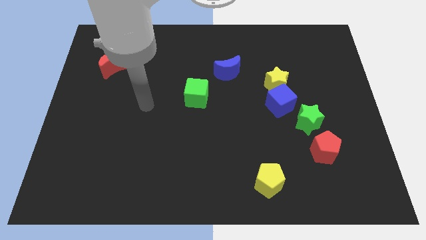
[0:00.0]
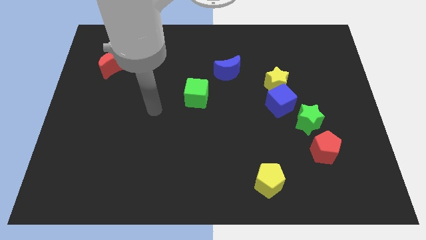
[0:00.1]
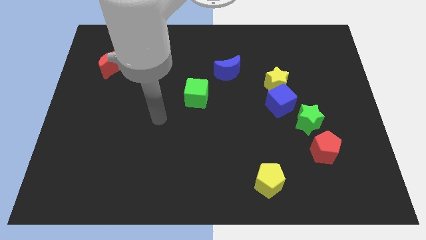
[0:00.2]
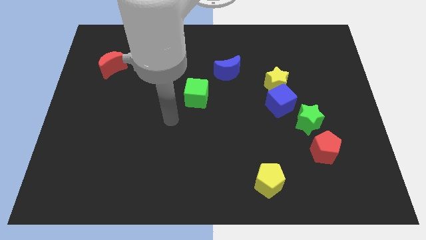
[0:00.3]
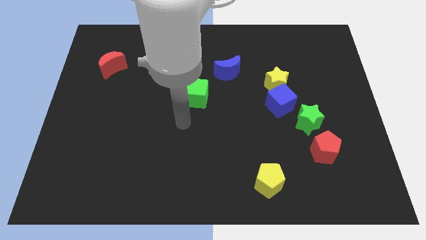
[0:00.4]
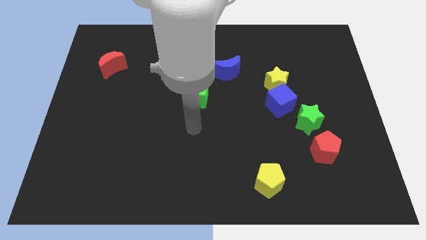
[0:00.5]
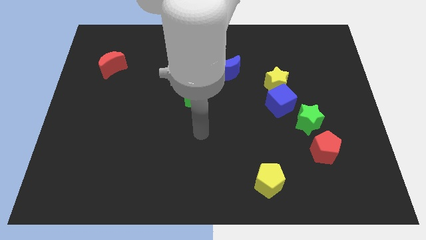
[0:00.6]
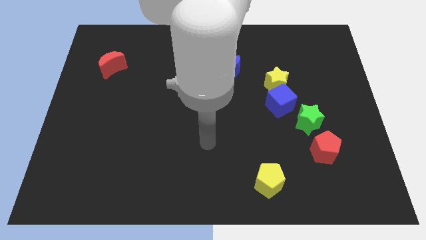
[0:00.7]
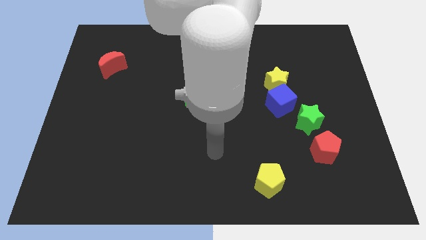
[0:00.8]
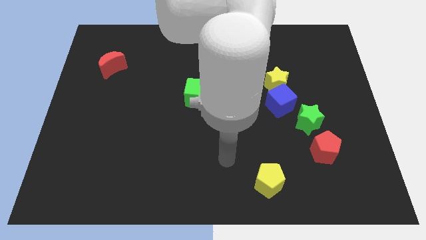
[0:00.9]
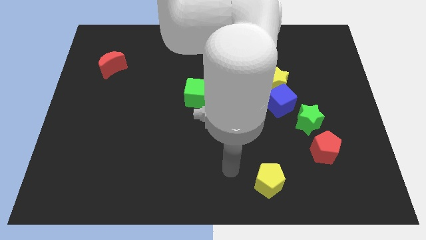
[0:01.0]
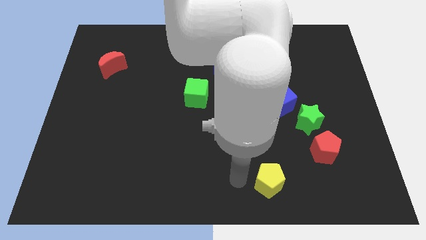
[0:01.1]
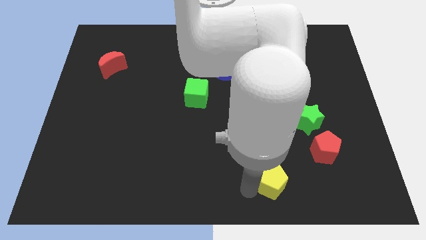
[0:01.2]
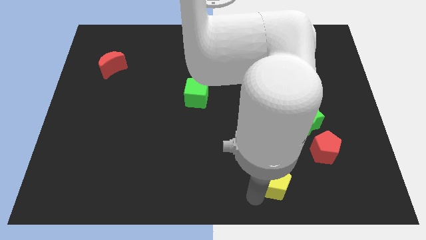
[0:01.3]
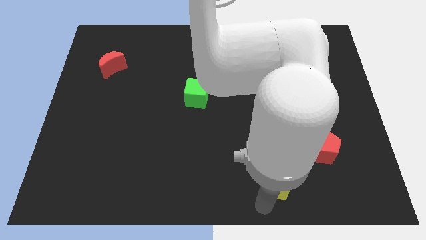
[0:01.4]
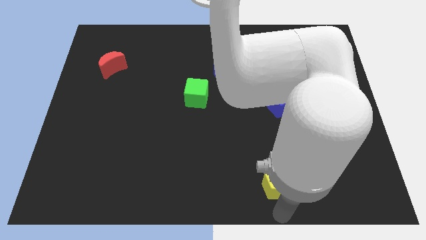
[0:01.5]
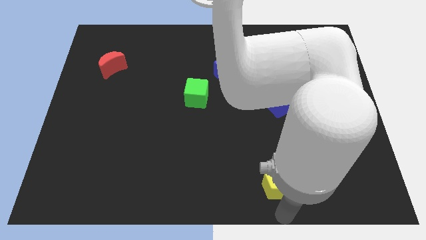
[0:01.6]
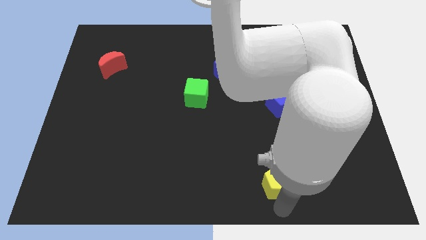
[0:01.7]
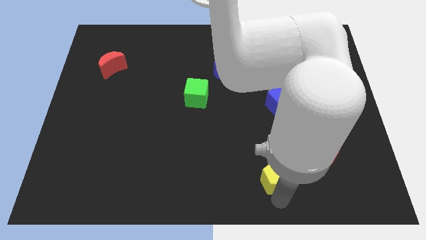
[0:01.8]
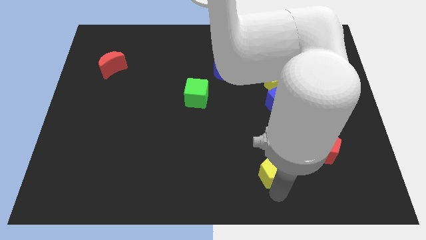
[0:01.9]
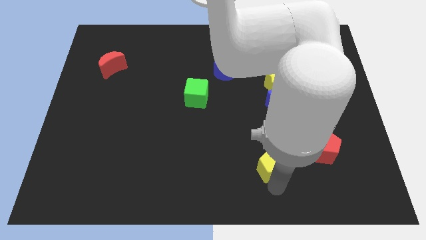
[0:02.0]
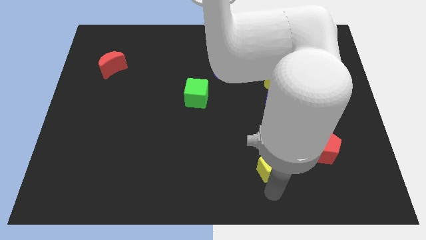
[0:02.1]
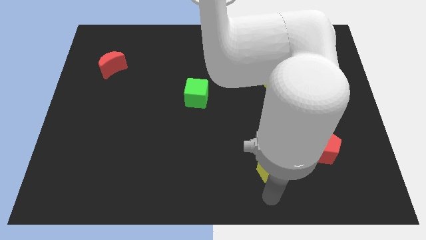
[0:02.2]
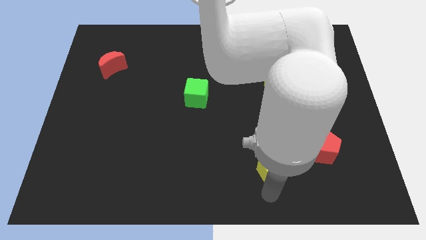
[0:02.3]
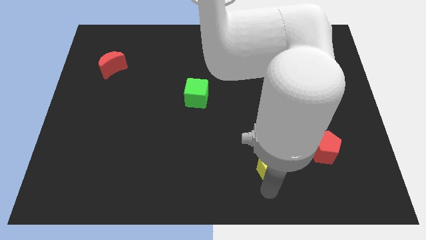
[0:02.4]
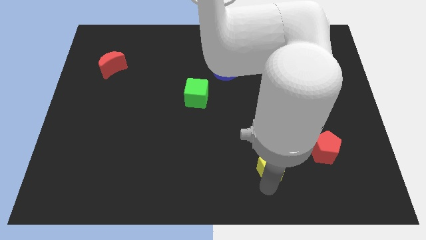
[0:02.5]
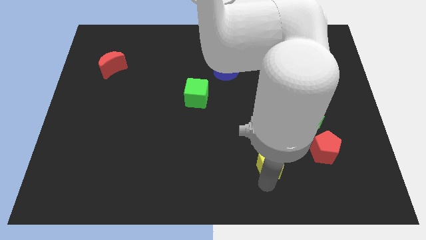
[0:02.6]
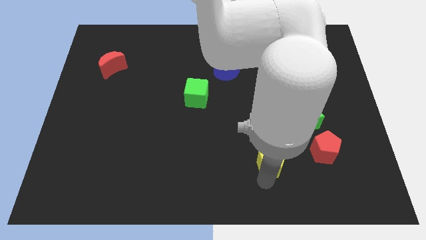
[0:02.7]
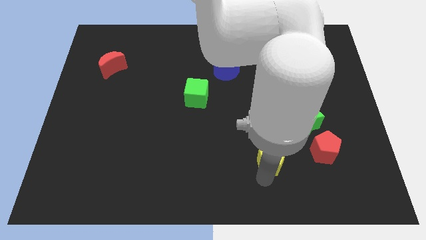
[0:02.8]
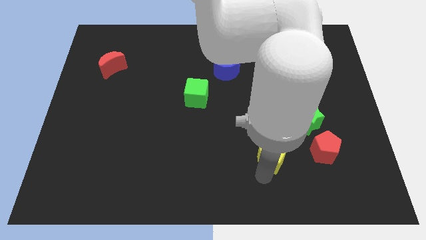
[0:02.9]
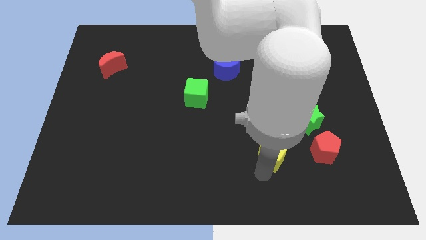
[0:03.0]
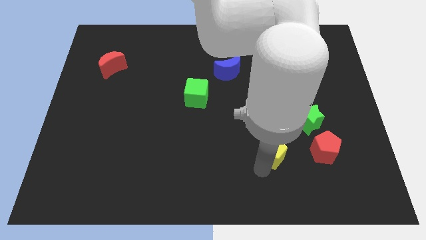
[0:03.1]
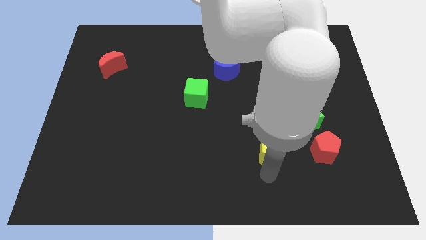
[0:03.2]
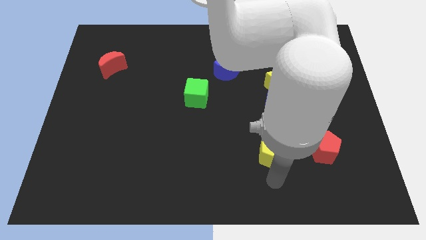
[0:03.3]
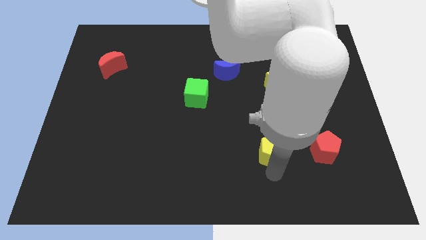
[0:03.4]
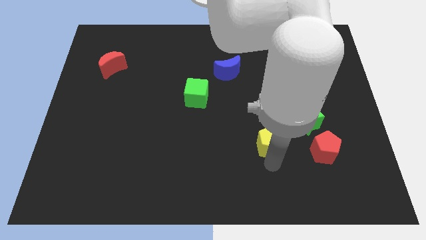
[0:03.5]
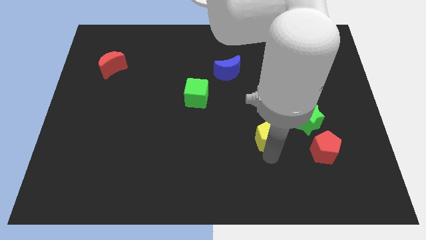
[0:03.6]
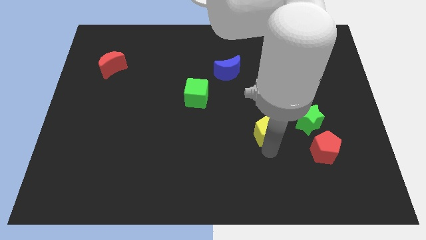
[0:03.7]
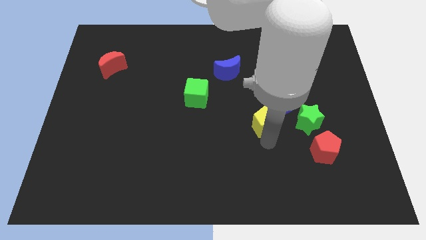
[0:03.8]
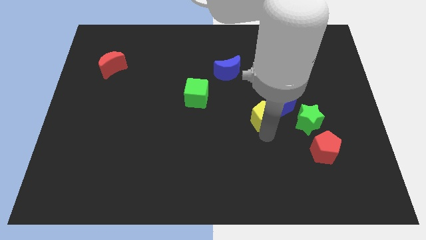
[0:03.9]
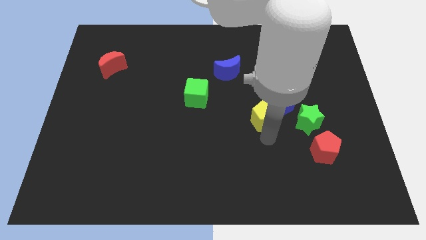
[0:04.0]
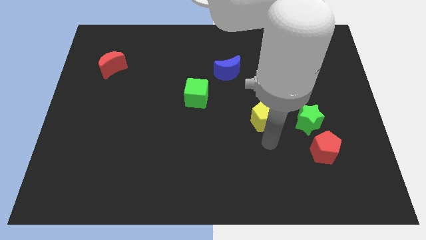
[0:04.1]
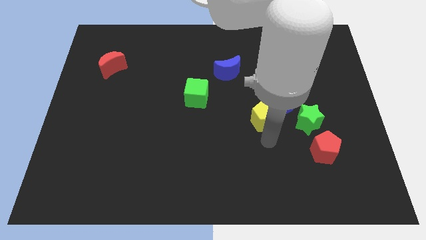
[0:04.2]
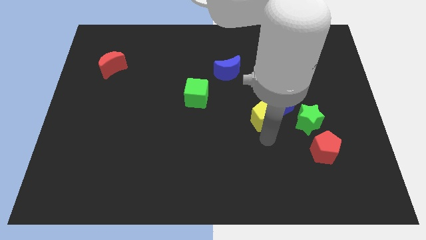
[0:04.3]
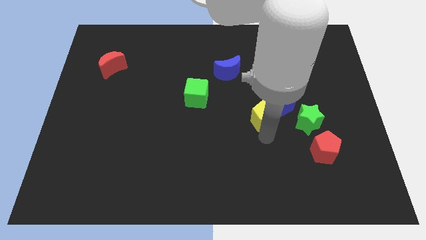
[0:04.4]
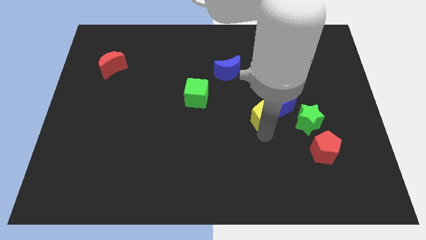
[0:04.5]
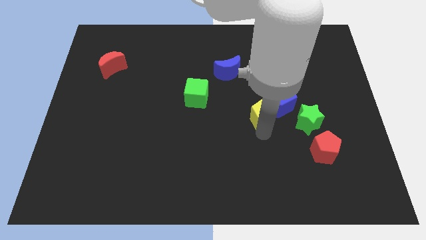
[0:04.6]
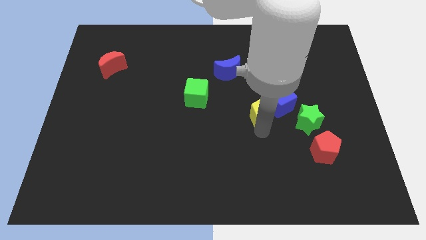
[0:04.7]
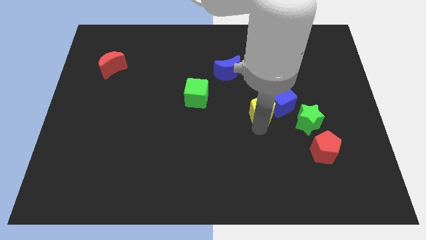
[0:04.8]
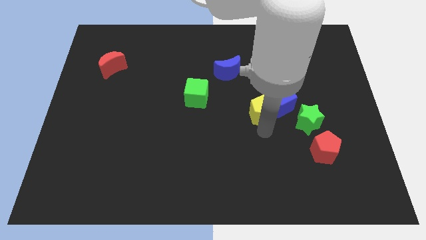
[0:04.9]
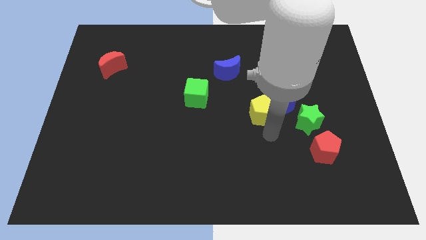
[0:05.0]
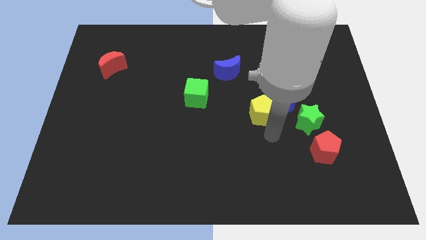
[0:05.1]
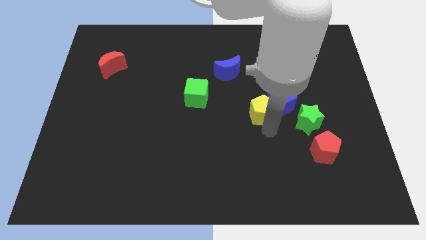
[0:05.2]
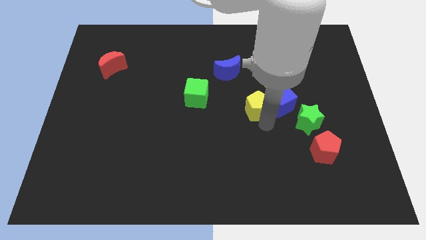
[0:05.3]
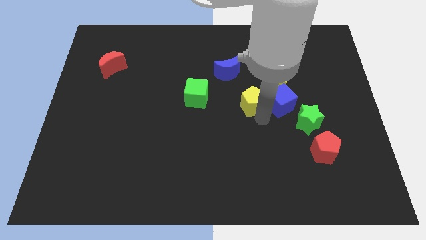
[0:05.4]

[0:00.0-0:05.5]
push the yellow pentagon upwards

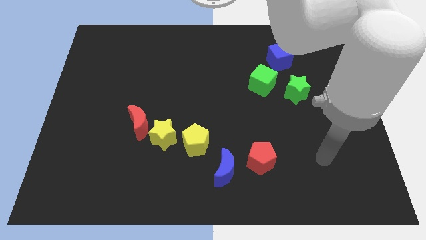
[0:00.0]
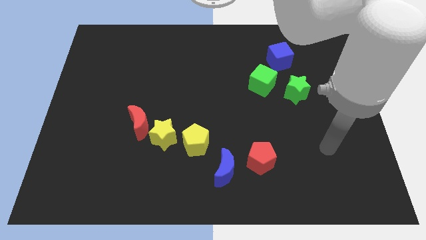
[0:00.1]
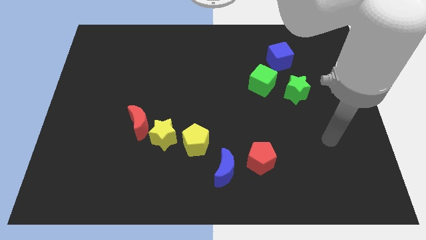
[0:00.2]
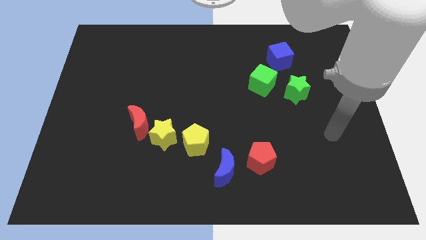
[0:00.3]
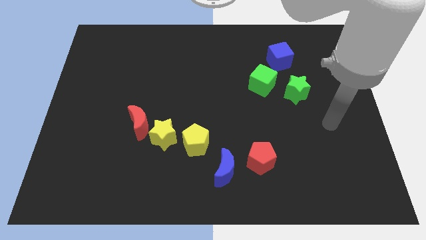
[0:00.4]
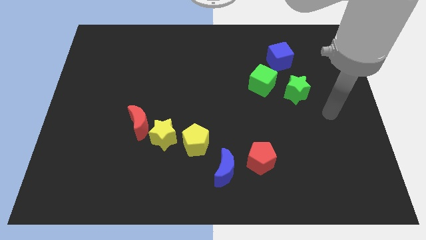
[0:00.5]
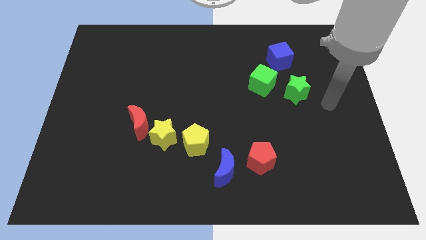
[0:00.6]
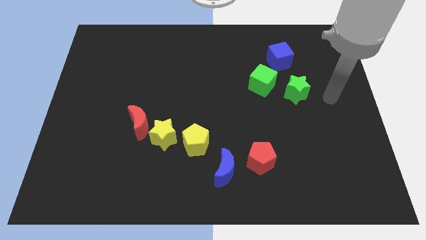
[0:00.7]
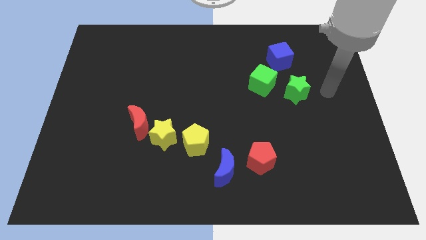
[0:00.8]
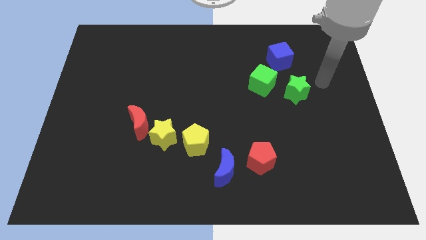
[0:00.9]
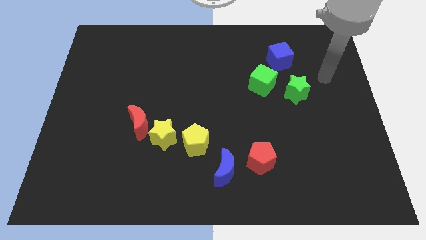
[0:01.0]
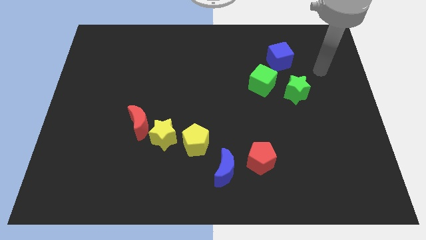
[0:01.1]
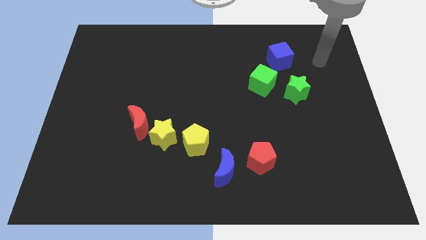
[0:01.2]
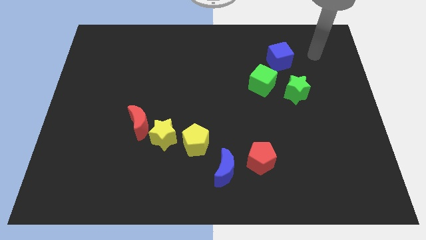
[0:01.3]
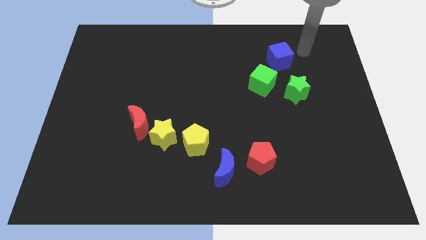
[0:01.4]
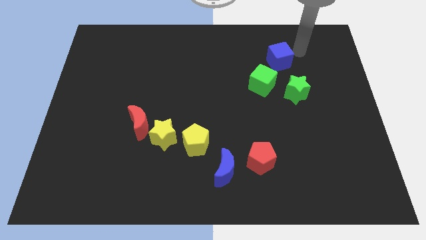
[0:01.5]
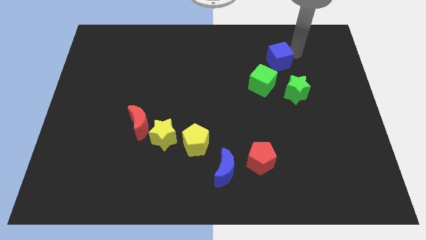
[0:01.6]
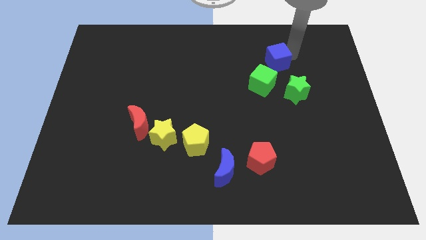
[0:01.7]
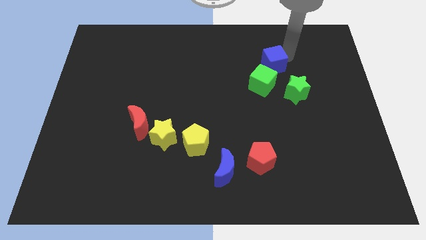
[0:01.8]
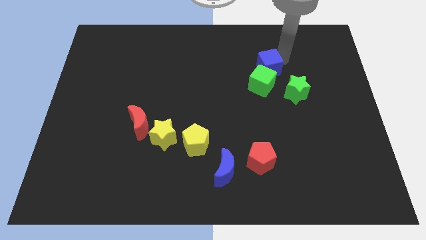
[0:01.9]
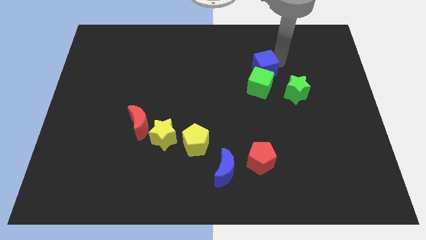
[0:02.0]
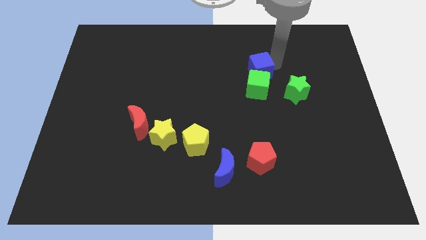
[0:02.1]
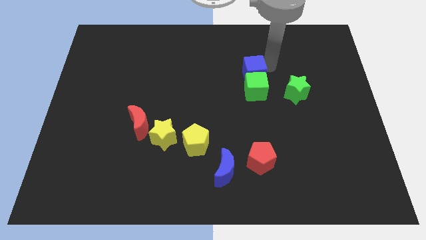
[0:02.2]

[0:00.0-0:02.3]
move the blue cube slightly downwards and to the left

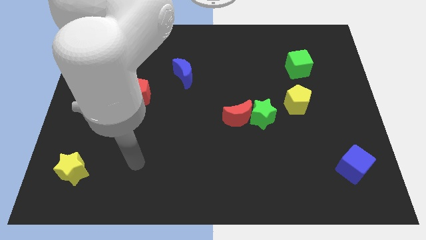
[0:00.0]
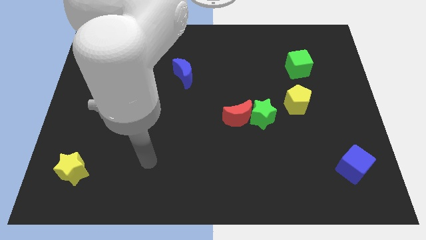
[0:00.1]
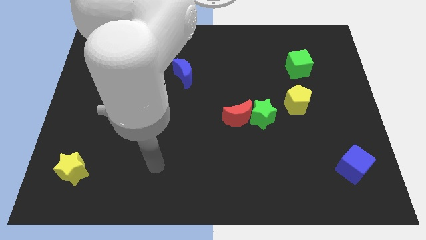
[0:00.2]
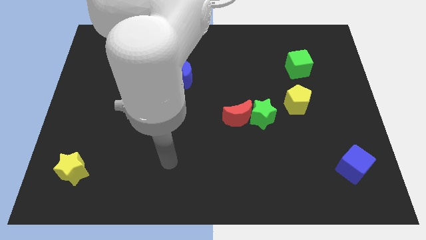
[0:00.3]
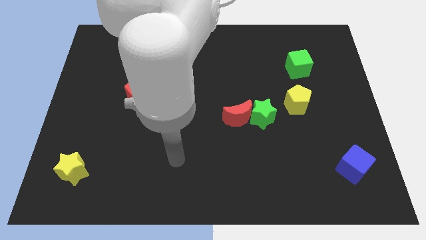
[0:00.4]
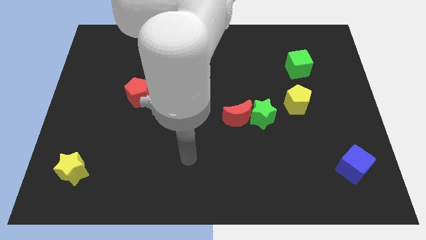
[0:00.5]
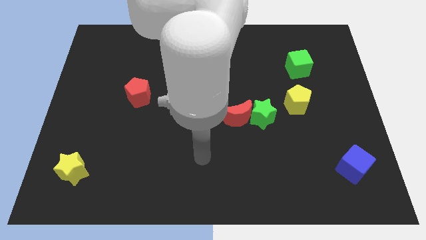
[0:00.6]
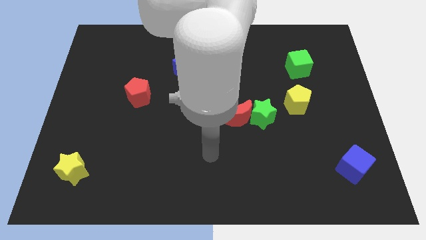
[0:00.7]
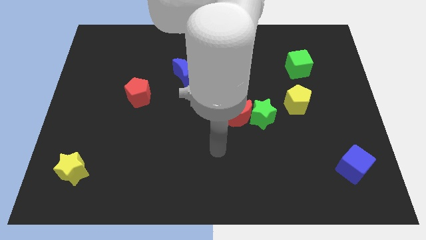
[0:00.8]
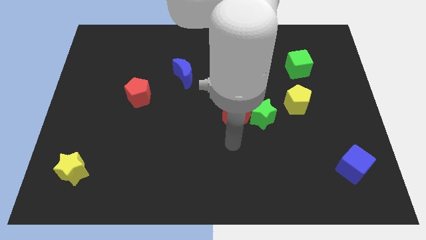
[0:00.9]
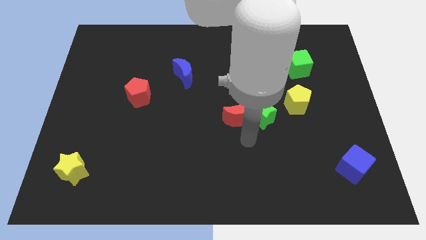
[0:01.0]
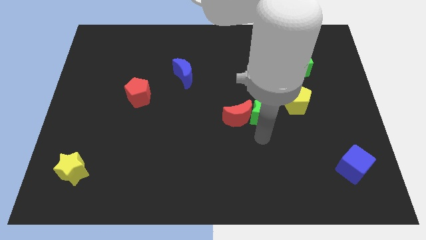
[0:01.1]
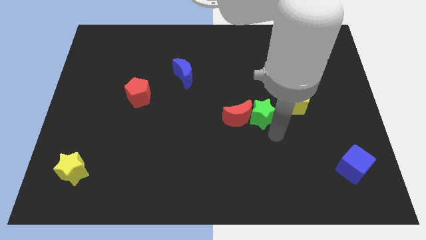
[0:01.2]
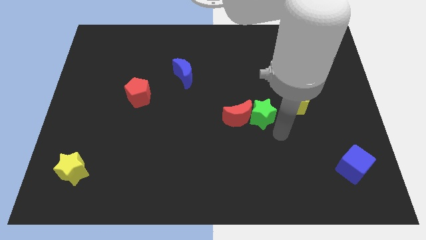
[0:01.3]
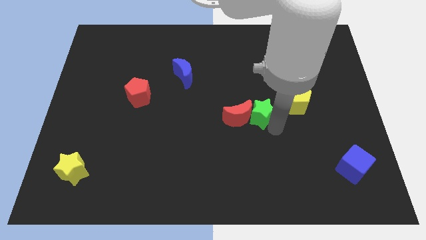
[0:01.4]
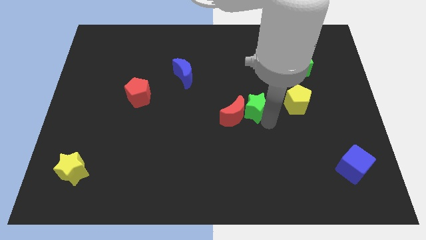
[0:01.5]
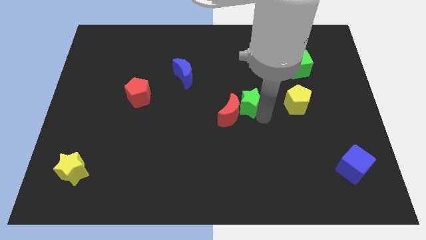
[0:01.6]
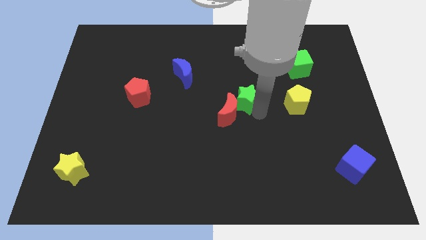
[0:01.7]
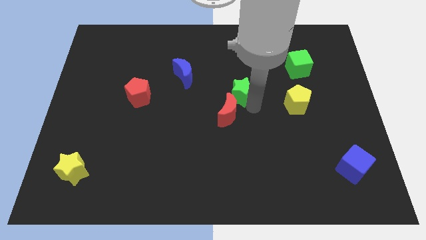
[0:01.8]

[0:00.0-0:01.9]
slide the green star up and left a bit
